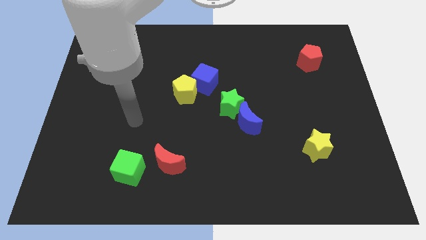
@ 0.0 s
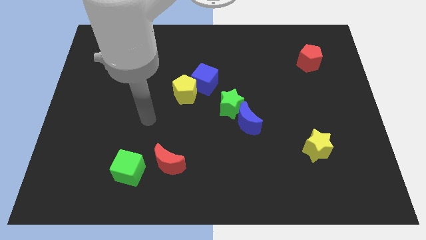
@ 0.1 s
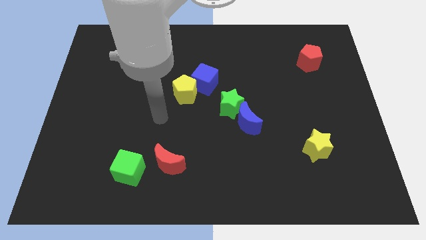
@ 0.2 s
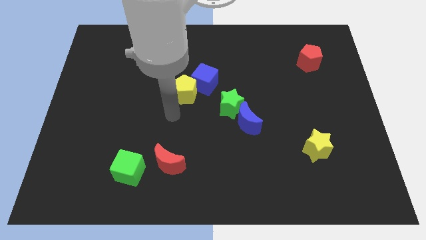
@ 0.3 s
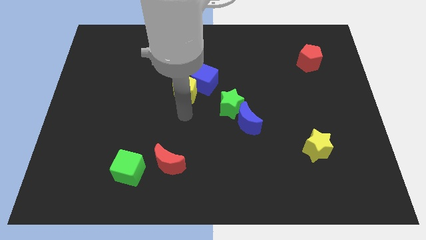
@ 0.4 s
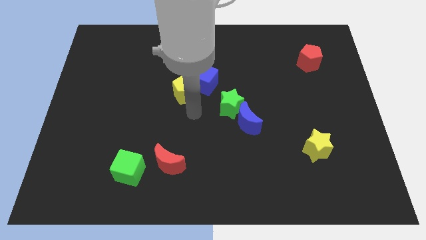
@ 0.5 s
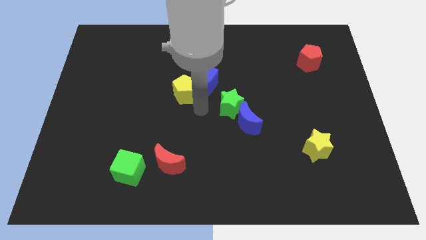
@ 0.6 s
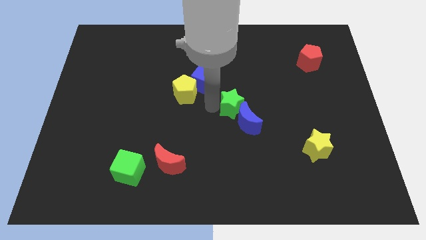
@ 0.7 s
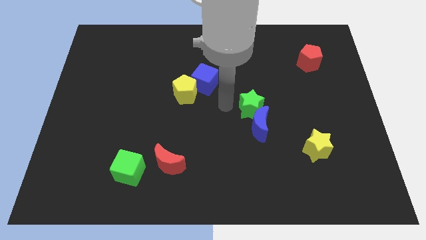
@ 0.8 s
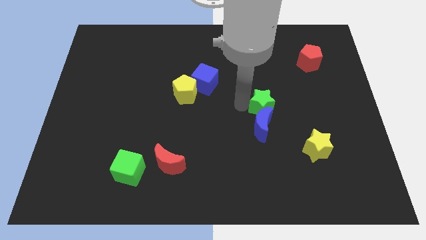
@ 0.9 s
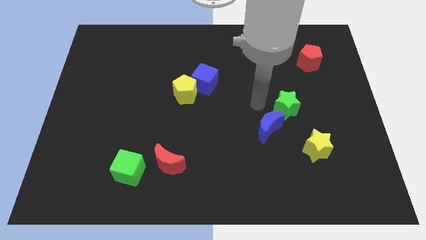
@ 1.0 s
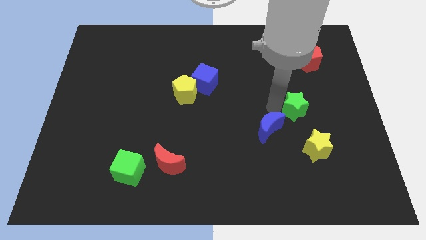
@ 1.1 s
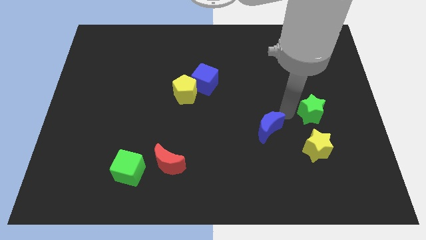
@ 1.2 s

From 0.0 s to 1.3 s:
pull the blue moon apart from the green star

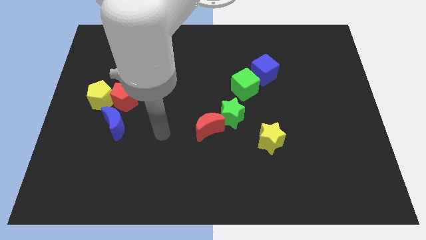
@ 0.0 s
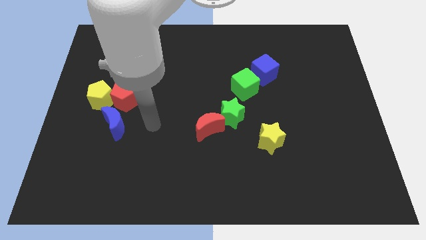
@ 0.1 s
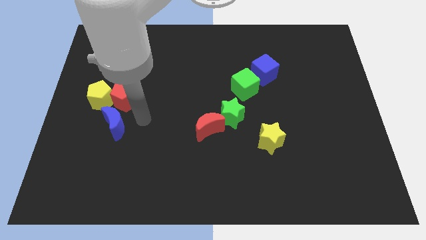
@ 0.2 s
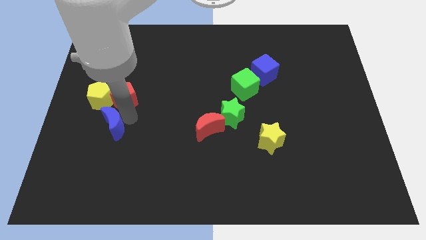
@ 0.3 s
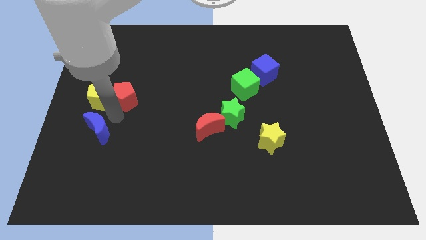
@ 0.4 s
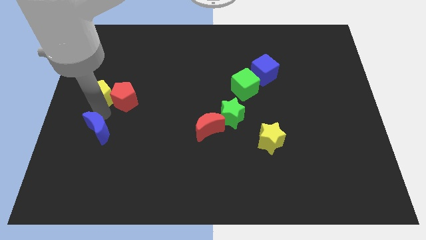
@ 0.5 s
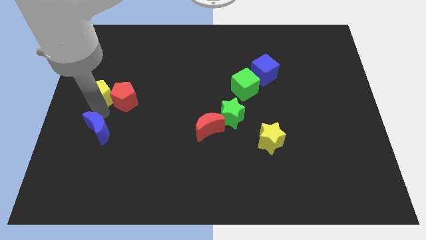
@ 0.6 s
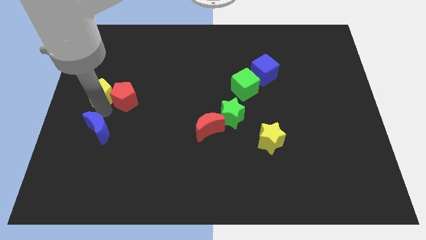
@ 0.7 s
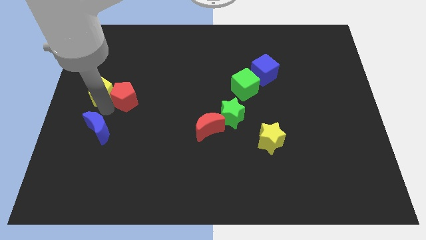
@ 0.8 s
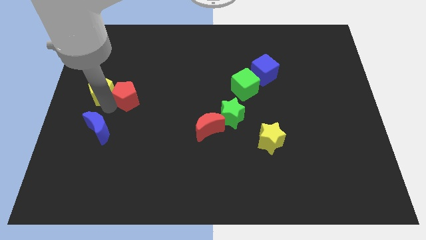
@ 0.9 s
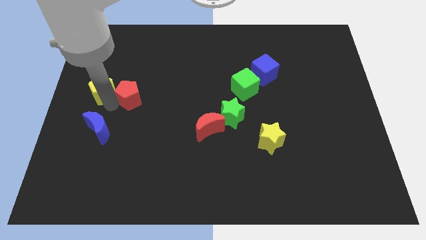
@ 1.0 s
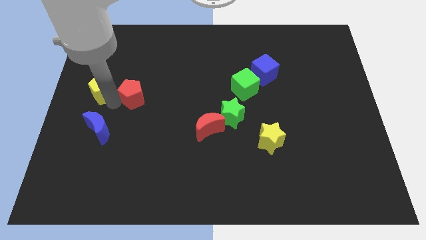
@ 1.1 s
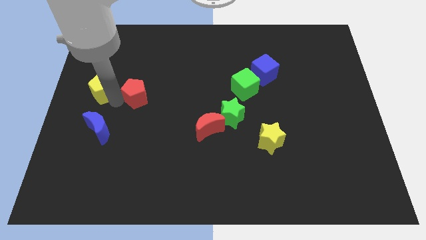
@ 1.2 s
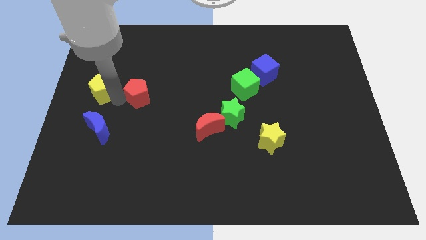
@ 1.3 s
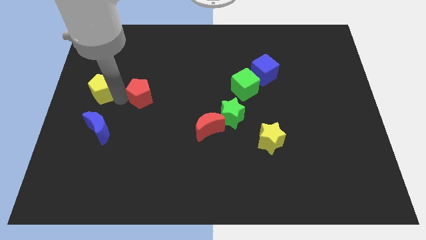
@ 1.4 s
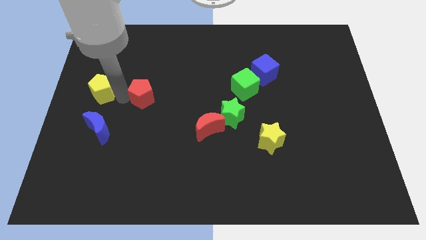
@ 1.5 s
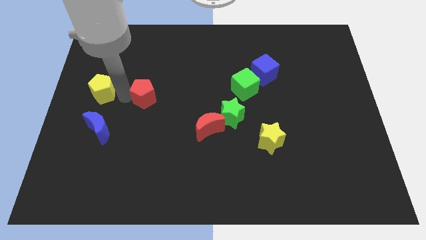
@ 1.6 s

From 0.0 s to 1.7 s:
separate the red pentagon from the yellow pentagon and blue moon

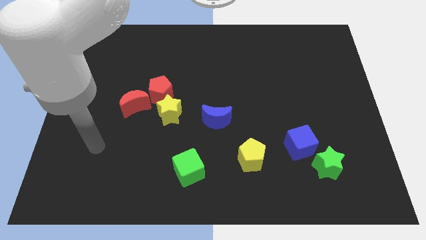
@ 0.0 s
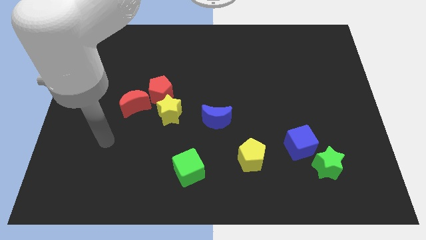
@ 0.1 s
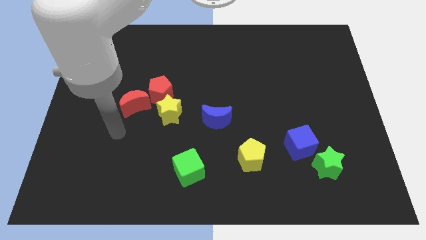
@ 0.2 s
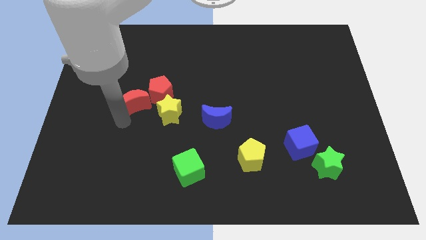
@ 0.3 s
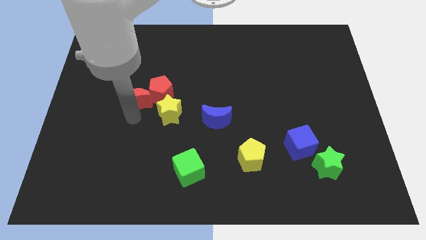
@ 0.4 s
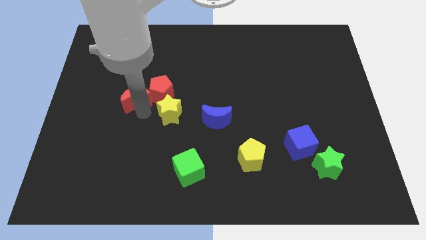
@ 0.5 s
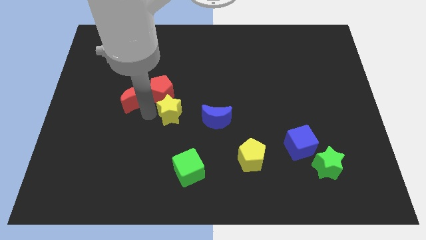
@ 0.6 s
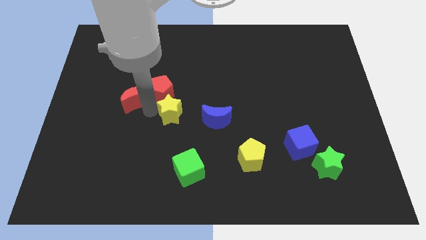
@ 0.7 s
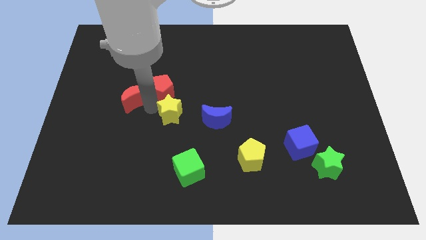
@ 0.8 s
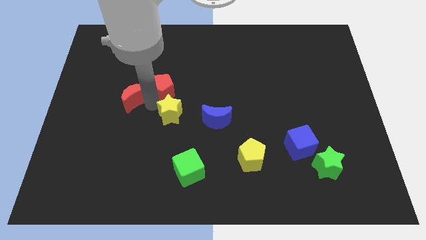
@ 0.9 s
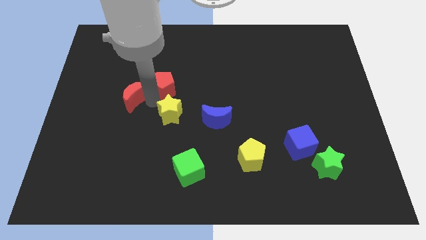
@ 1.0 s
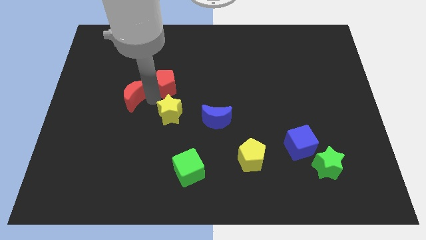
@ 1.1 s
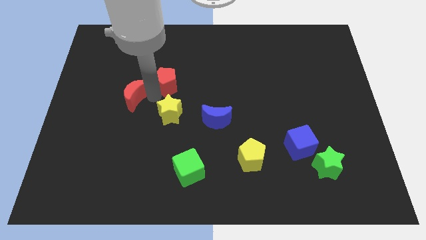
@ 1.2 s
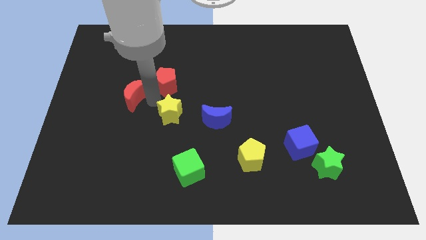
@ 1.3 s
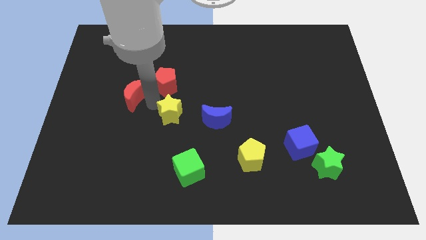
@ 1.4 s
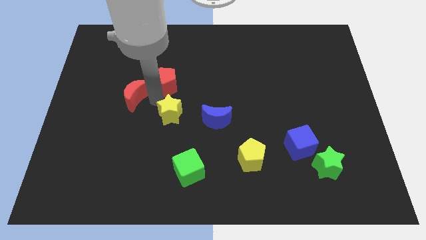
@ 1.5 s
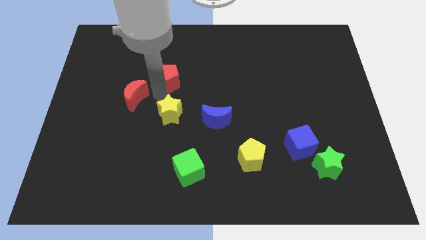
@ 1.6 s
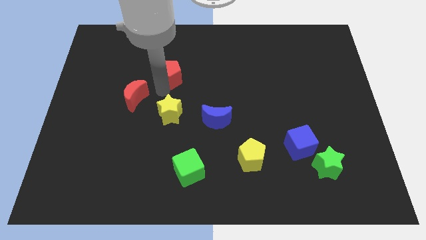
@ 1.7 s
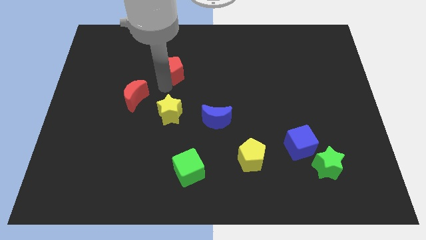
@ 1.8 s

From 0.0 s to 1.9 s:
pull the red pentagon apart from the yellow star and red moon

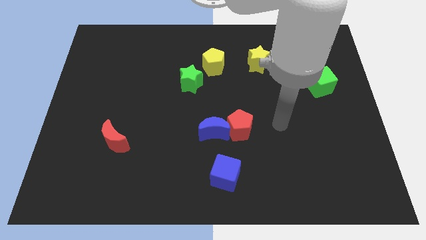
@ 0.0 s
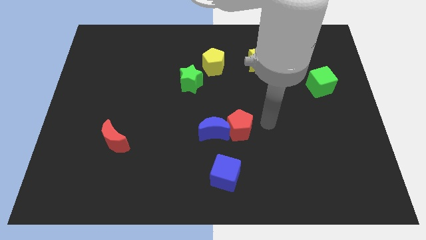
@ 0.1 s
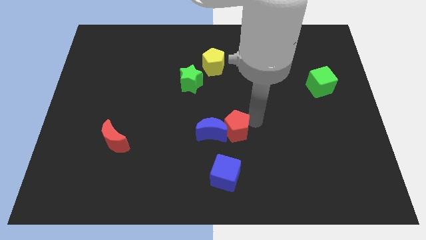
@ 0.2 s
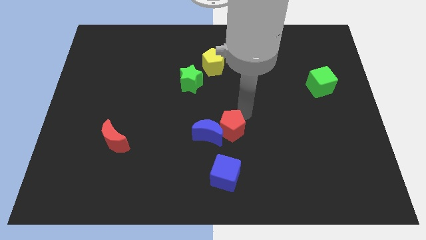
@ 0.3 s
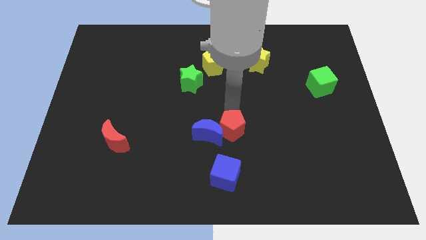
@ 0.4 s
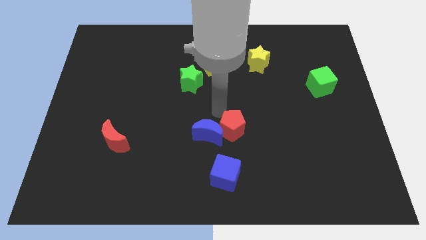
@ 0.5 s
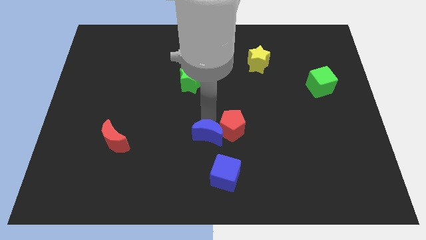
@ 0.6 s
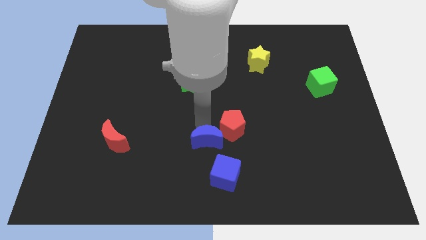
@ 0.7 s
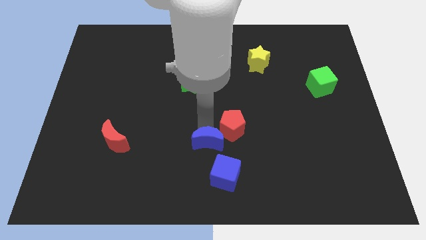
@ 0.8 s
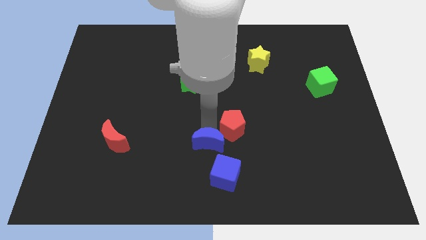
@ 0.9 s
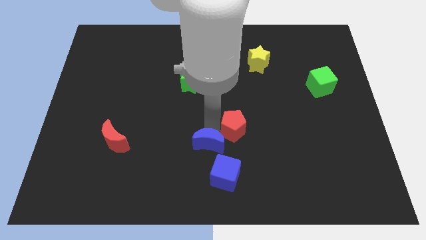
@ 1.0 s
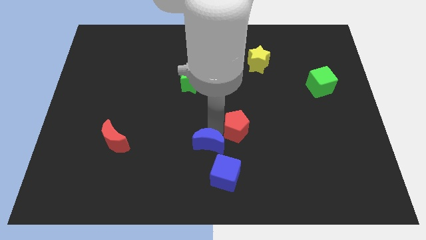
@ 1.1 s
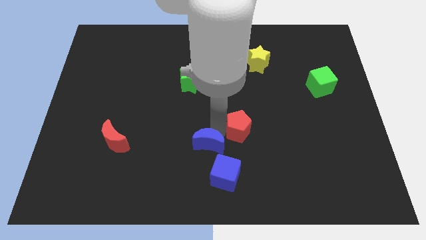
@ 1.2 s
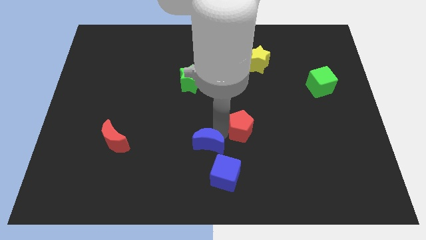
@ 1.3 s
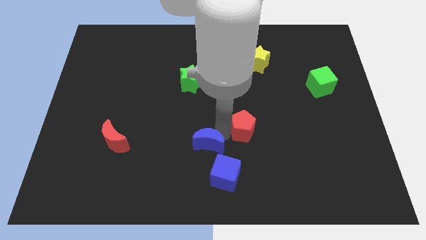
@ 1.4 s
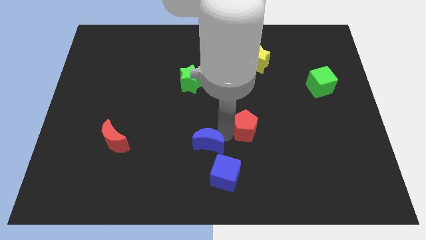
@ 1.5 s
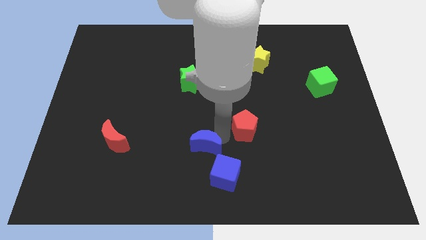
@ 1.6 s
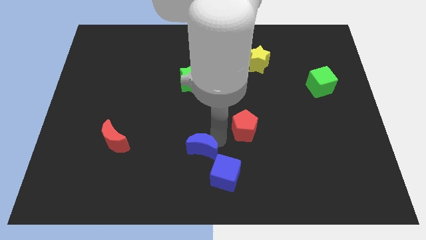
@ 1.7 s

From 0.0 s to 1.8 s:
pull the red pentagon apart from the blue moon

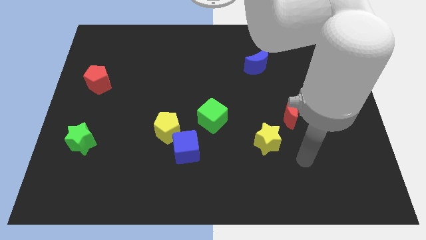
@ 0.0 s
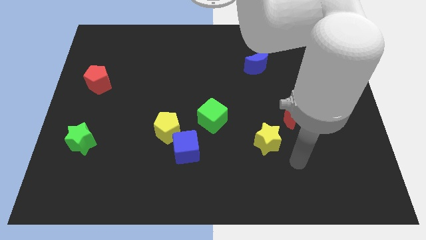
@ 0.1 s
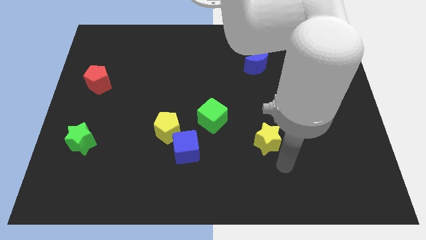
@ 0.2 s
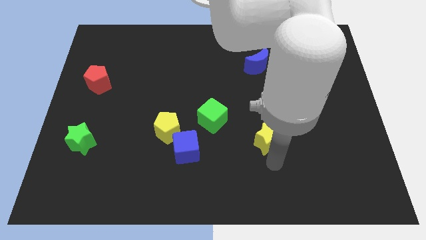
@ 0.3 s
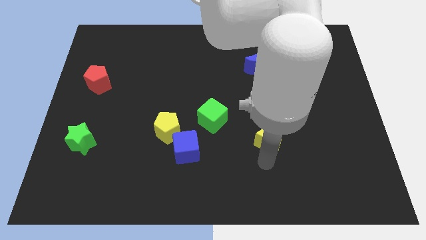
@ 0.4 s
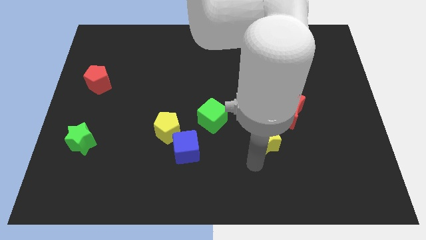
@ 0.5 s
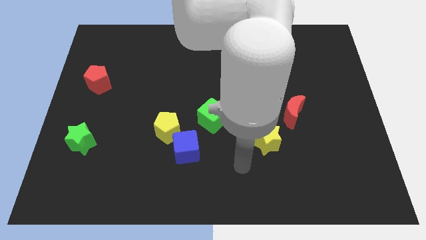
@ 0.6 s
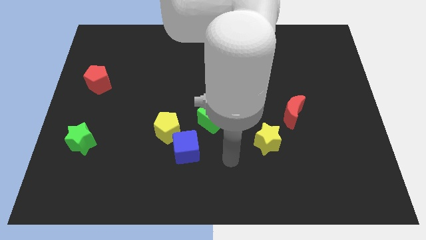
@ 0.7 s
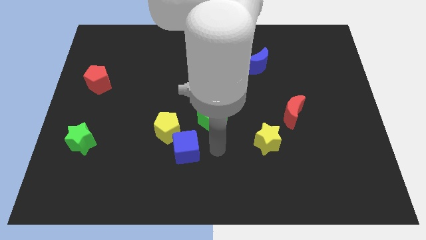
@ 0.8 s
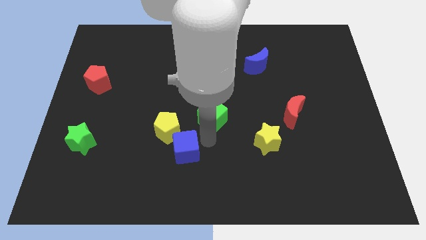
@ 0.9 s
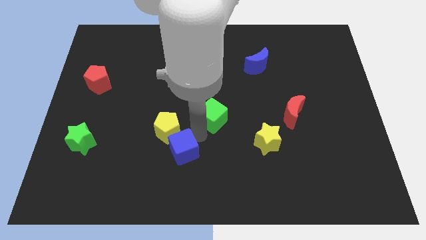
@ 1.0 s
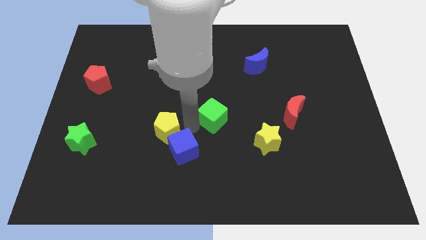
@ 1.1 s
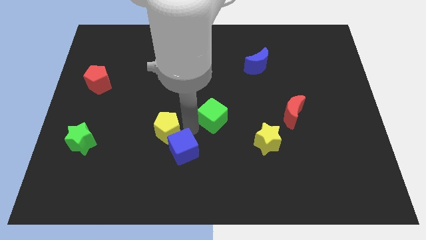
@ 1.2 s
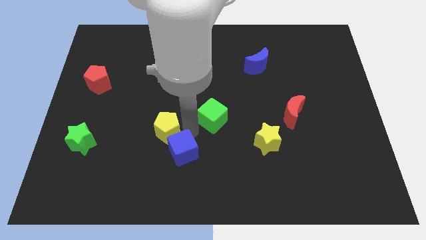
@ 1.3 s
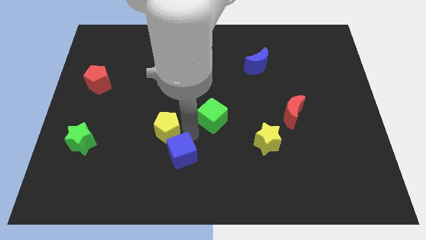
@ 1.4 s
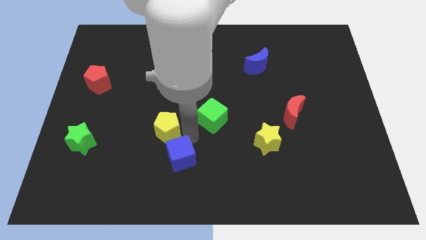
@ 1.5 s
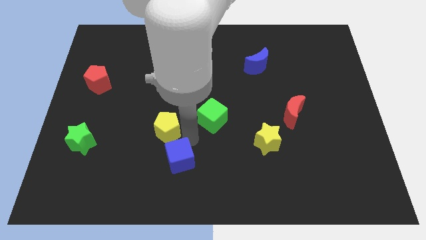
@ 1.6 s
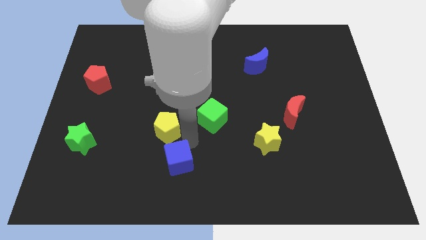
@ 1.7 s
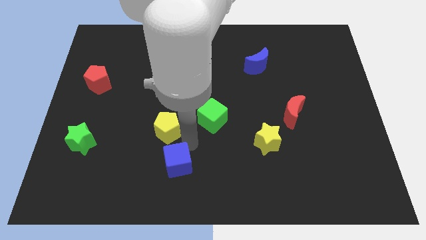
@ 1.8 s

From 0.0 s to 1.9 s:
move the blue cube away from the yellow pentagon and green cube

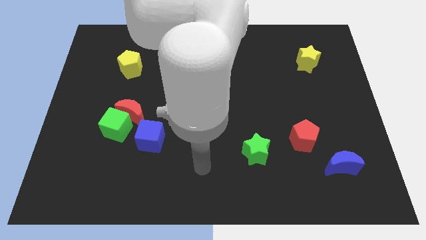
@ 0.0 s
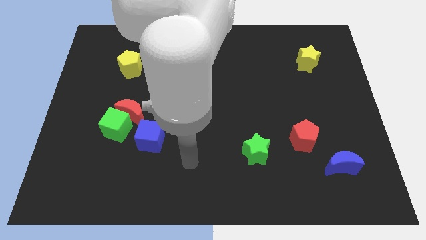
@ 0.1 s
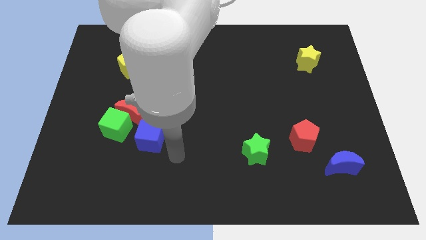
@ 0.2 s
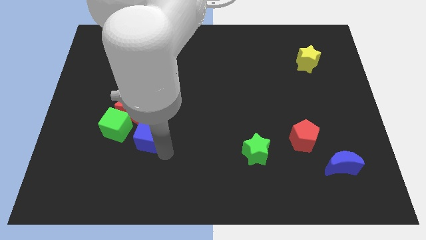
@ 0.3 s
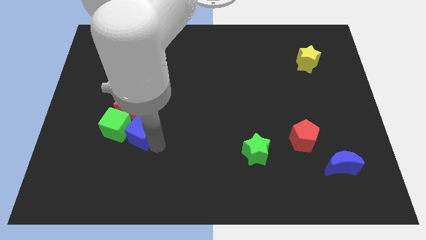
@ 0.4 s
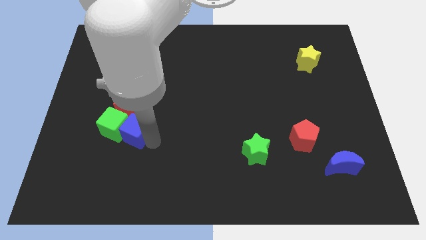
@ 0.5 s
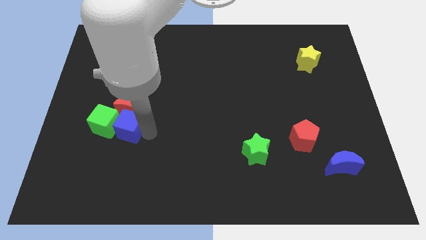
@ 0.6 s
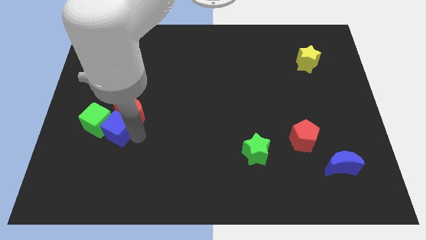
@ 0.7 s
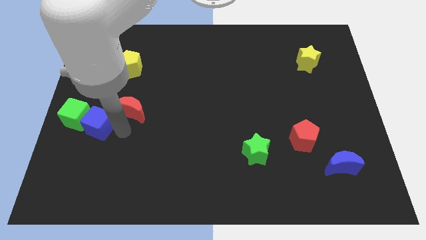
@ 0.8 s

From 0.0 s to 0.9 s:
separate the red moon from the green cube and blue cube
